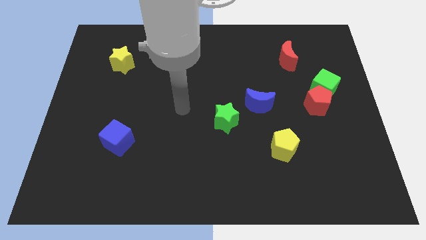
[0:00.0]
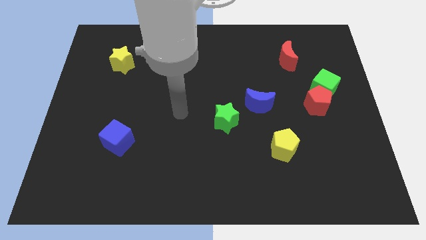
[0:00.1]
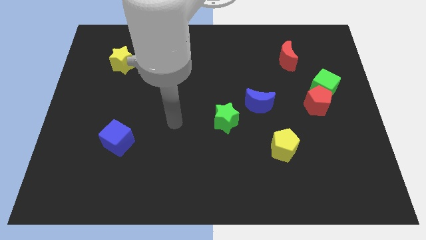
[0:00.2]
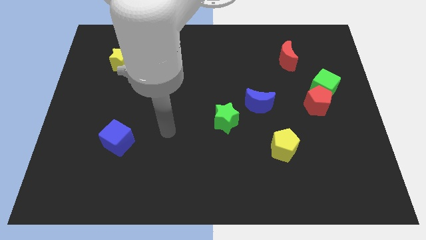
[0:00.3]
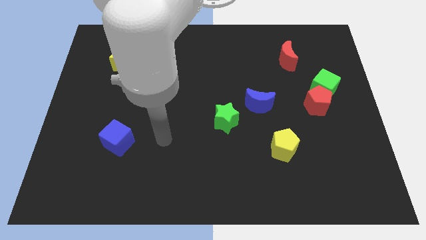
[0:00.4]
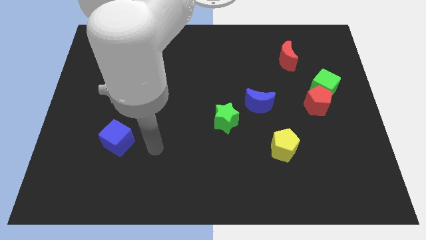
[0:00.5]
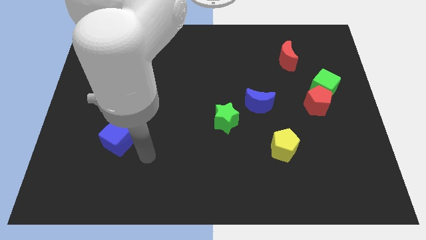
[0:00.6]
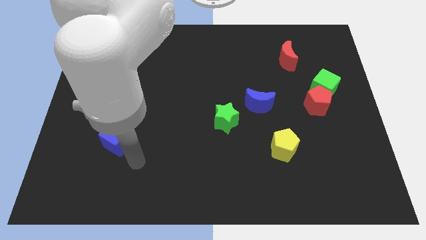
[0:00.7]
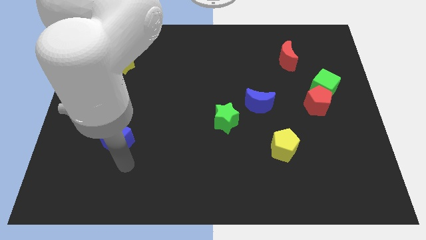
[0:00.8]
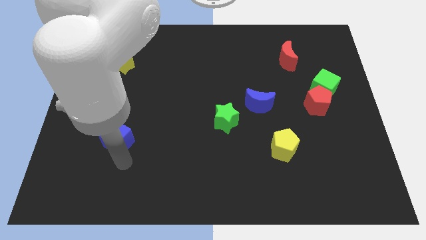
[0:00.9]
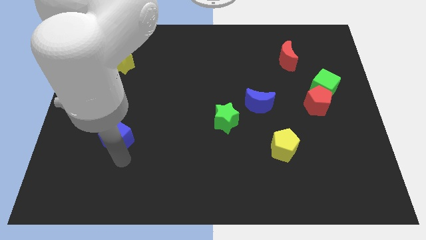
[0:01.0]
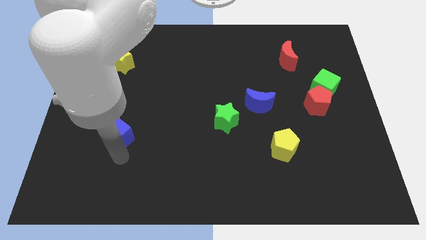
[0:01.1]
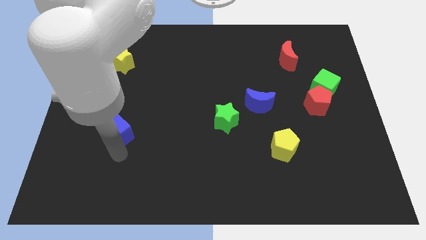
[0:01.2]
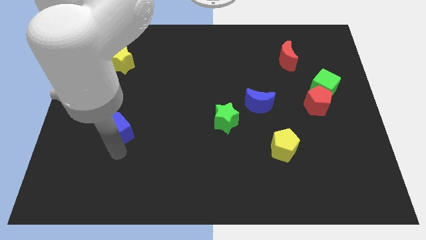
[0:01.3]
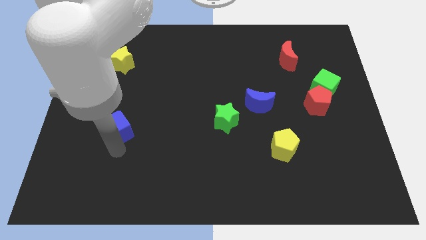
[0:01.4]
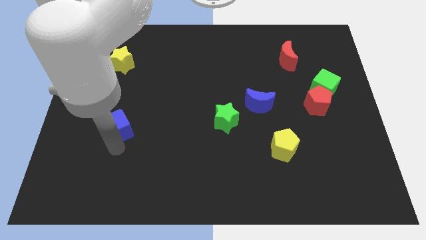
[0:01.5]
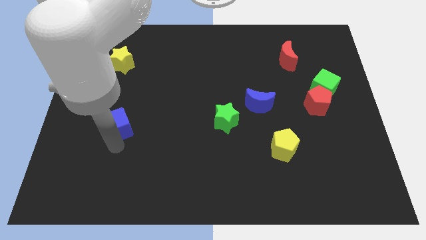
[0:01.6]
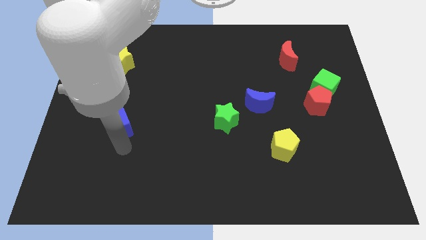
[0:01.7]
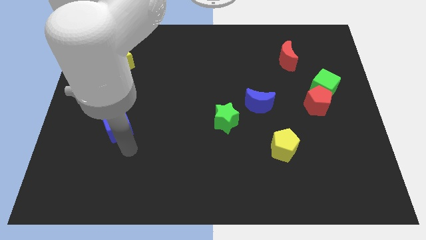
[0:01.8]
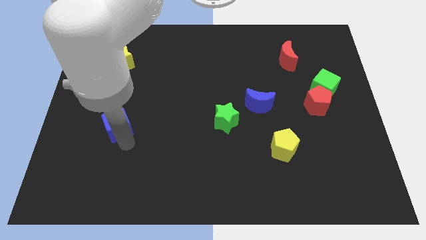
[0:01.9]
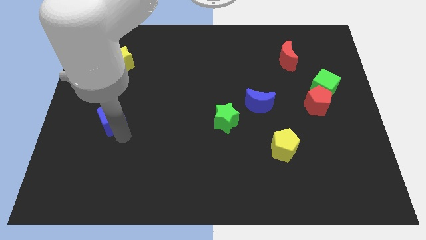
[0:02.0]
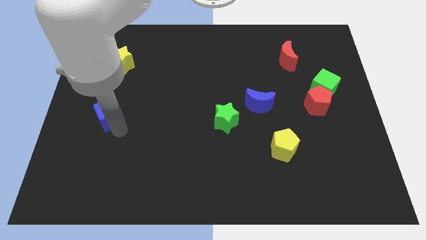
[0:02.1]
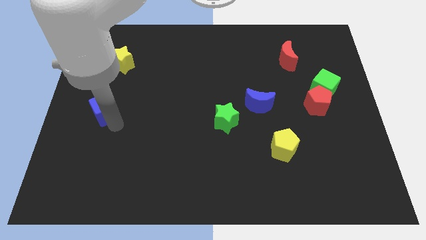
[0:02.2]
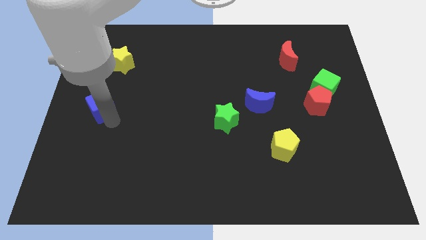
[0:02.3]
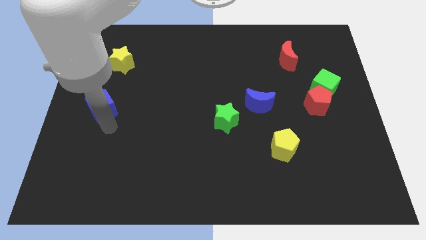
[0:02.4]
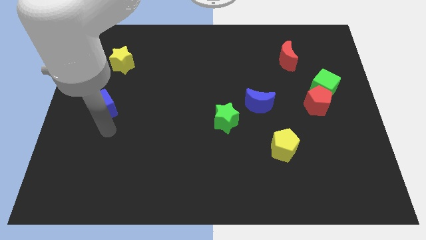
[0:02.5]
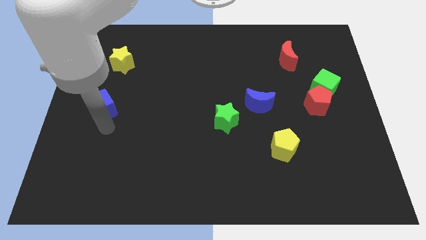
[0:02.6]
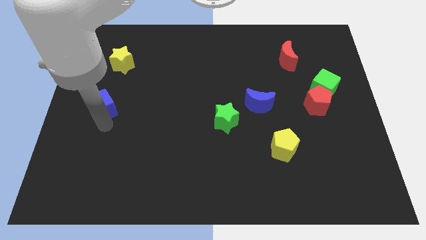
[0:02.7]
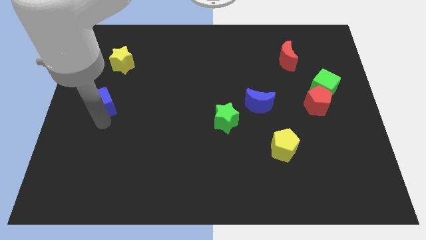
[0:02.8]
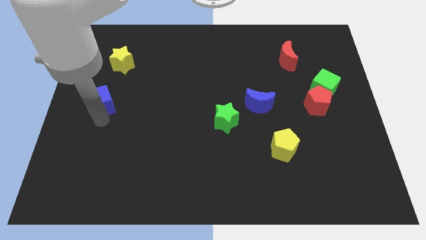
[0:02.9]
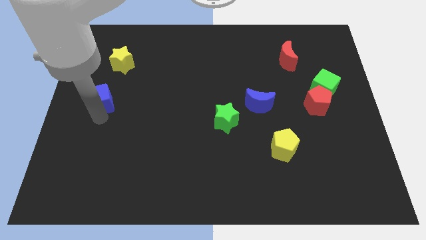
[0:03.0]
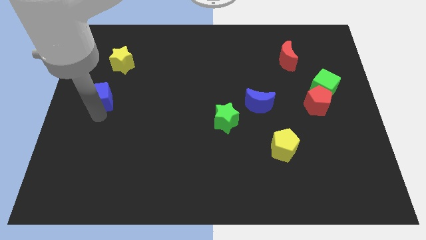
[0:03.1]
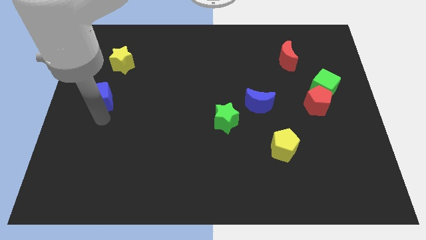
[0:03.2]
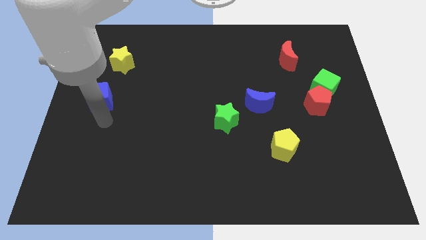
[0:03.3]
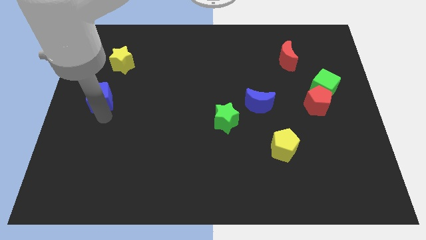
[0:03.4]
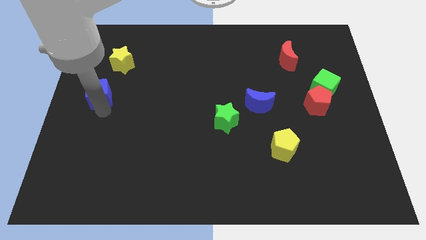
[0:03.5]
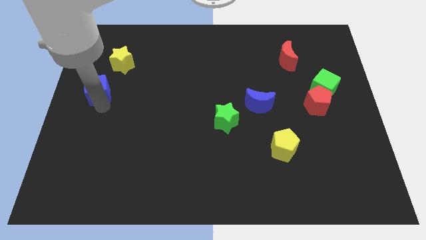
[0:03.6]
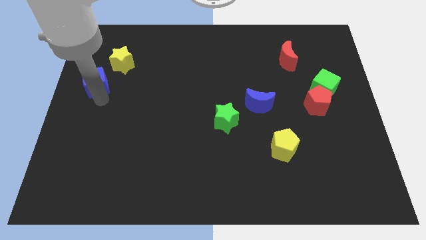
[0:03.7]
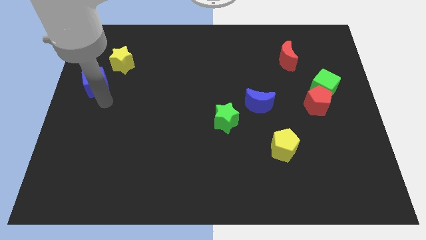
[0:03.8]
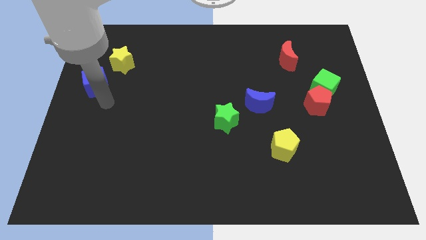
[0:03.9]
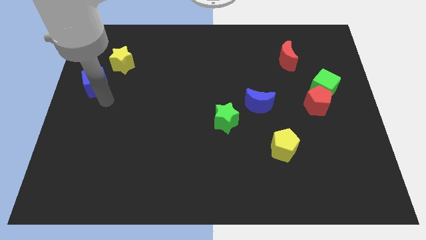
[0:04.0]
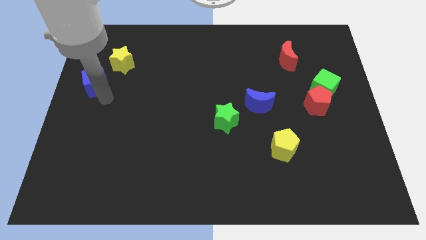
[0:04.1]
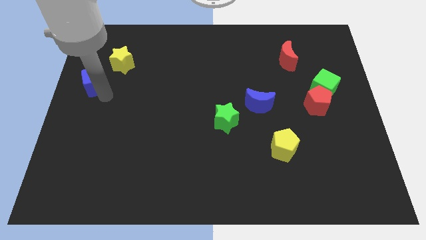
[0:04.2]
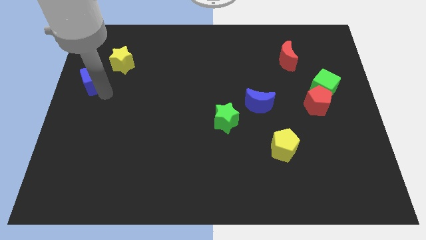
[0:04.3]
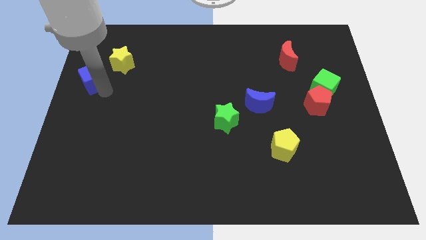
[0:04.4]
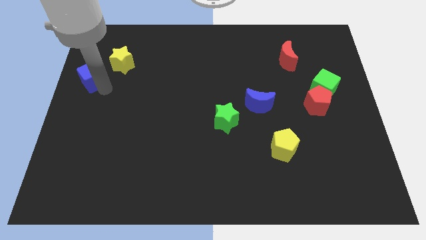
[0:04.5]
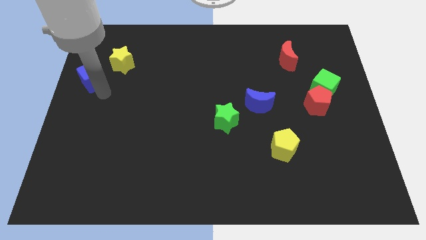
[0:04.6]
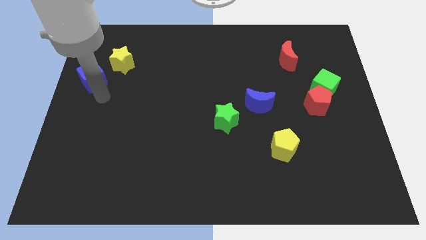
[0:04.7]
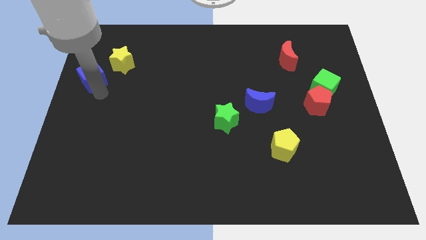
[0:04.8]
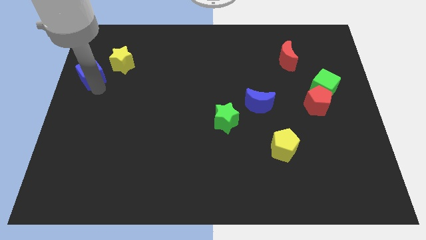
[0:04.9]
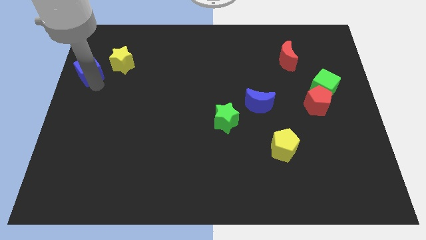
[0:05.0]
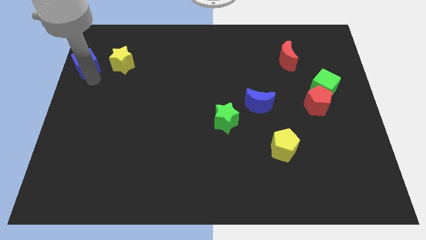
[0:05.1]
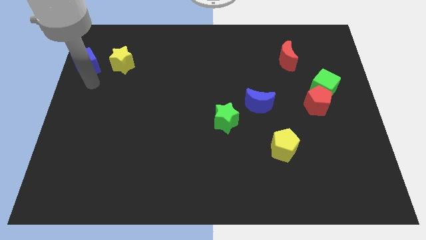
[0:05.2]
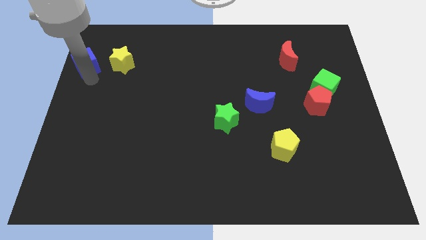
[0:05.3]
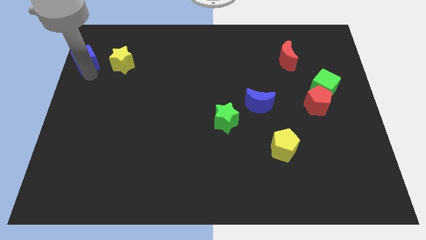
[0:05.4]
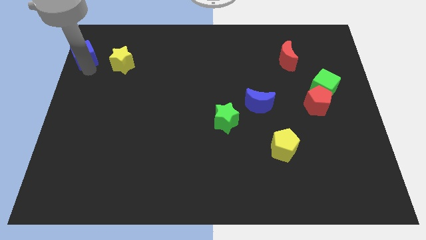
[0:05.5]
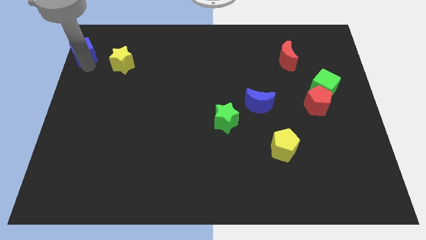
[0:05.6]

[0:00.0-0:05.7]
slide the blue cube to the top left of the board
